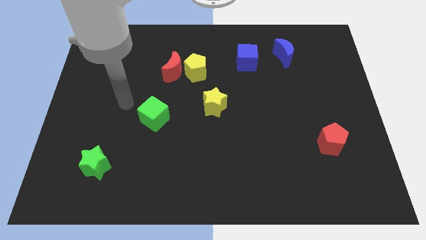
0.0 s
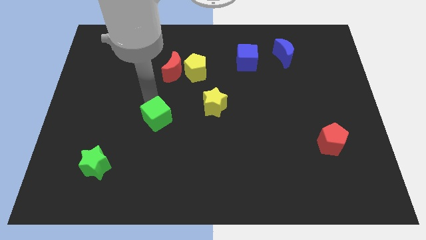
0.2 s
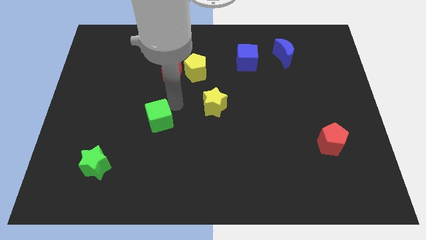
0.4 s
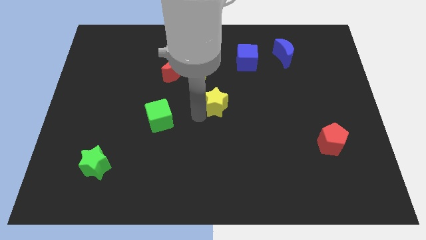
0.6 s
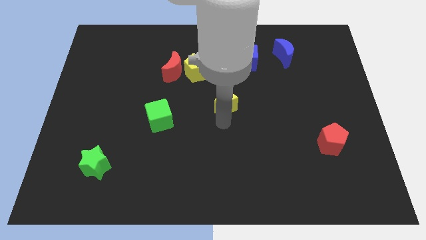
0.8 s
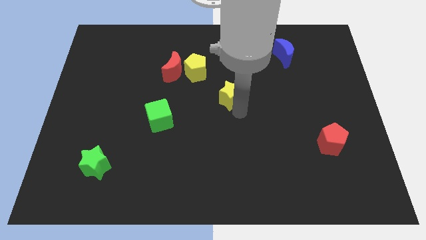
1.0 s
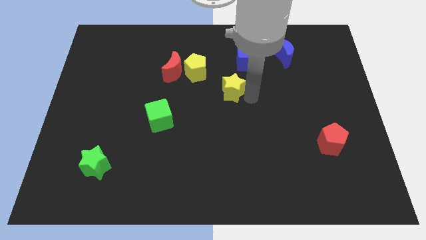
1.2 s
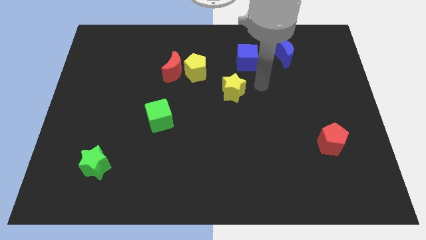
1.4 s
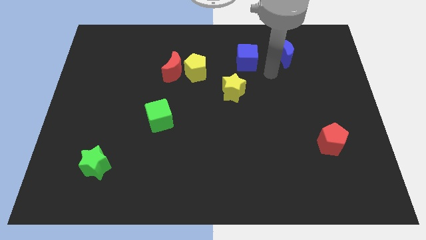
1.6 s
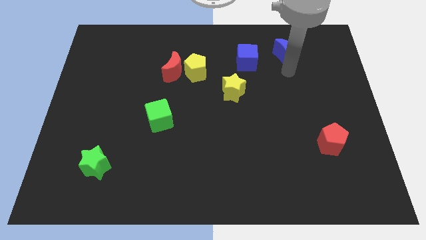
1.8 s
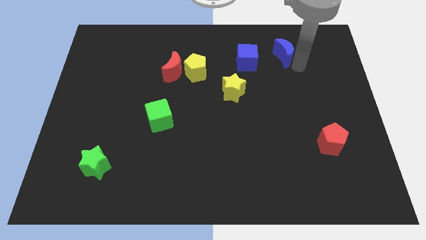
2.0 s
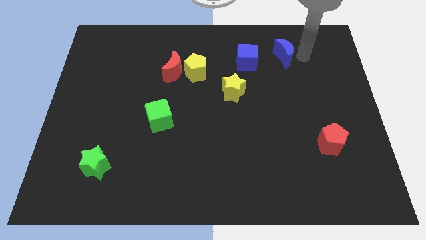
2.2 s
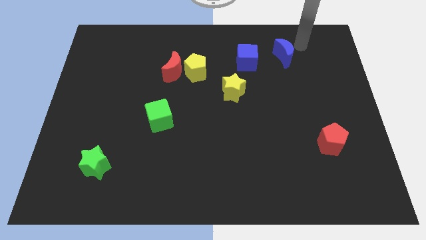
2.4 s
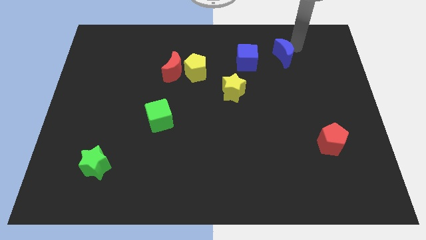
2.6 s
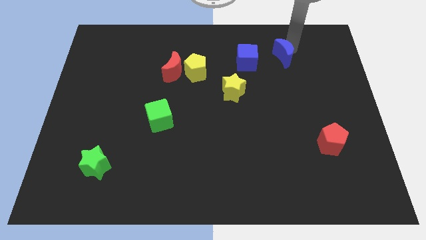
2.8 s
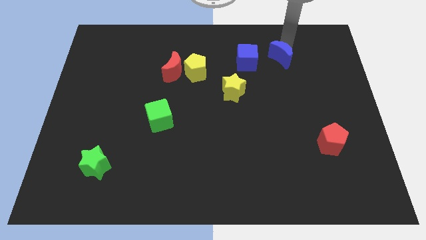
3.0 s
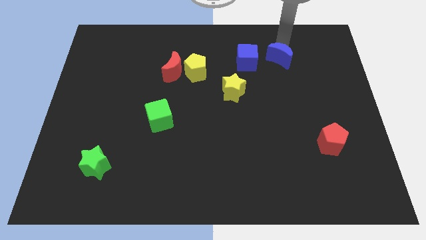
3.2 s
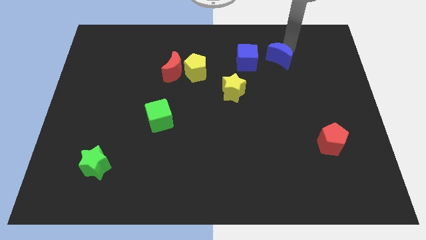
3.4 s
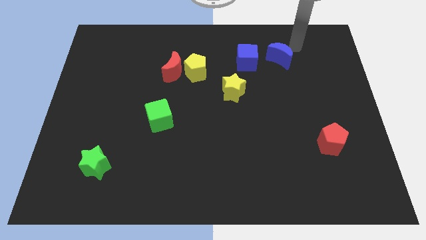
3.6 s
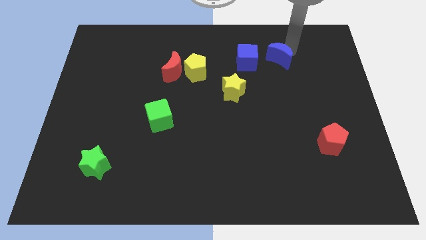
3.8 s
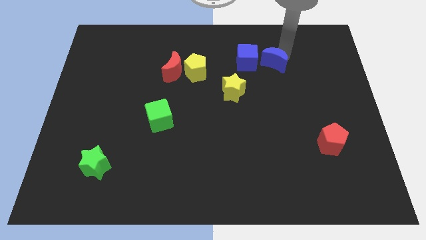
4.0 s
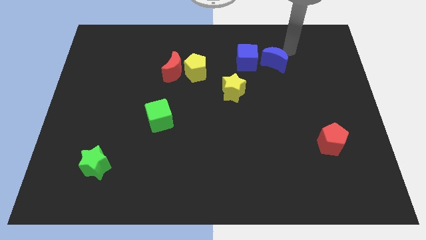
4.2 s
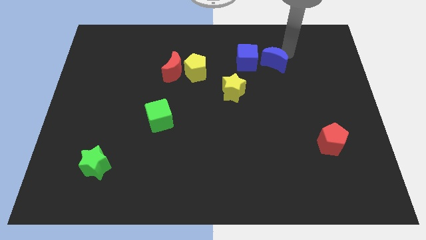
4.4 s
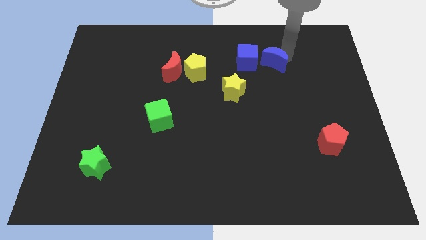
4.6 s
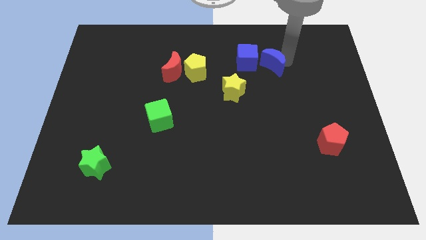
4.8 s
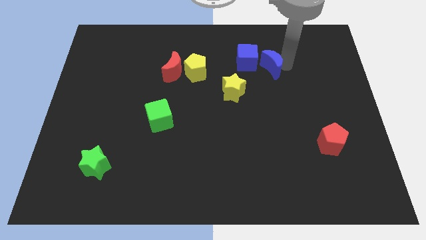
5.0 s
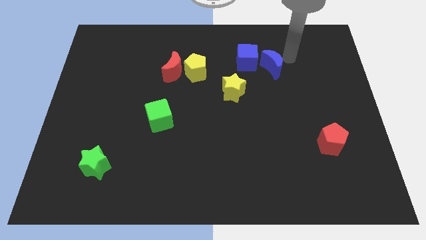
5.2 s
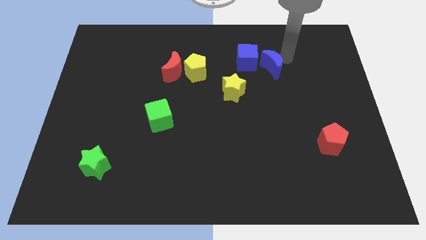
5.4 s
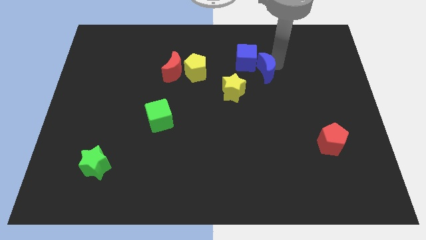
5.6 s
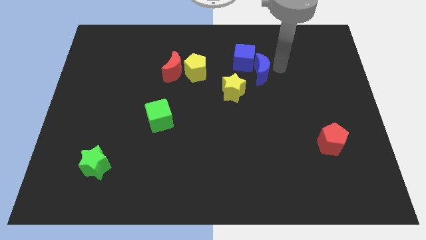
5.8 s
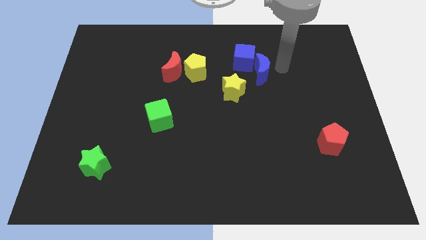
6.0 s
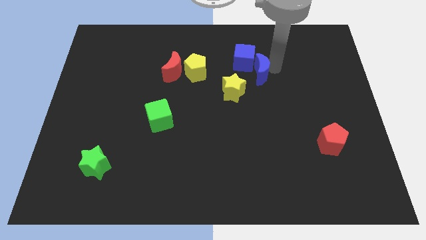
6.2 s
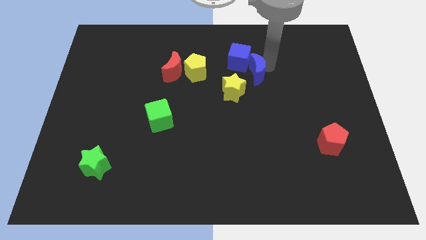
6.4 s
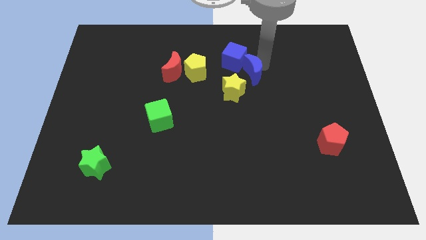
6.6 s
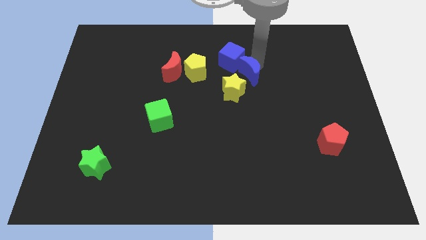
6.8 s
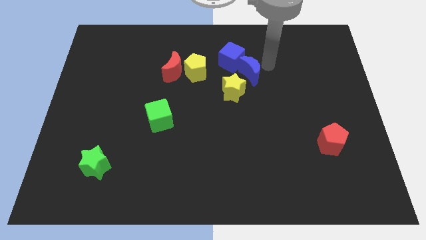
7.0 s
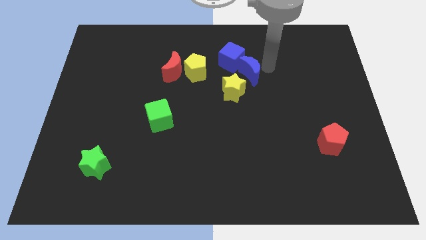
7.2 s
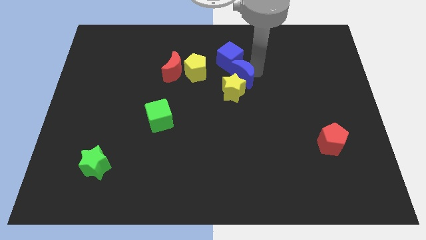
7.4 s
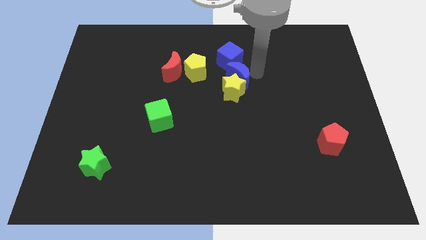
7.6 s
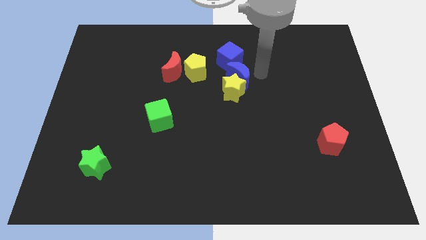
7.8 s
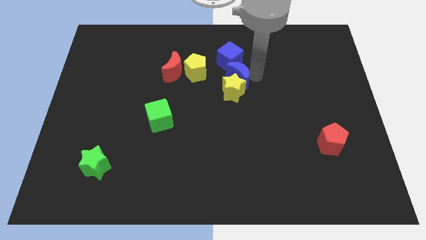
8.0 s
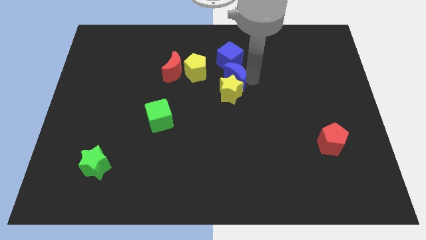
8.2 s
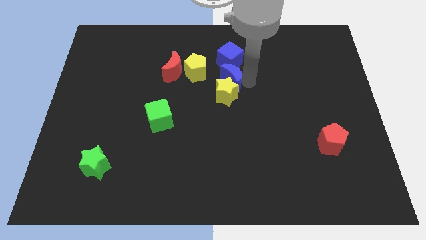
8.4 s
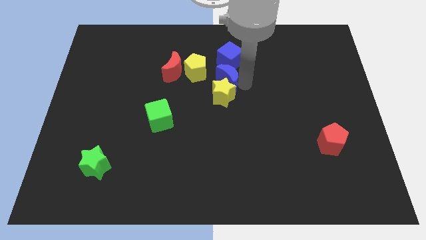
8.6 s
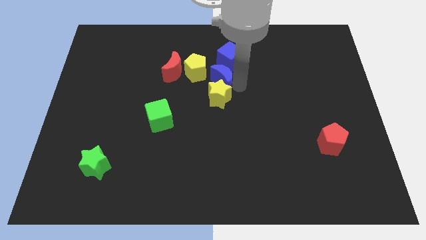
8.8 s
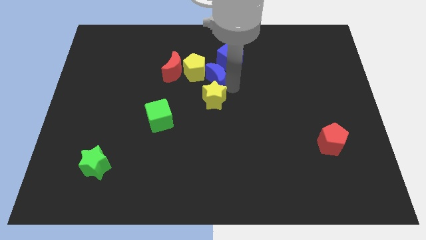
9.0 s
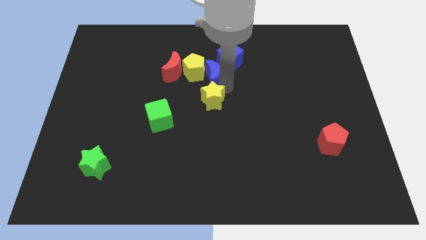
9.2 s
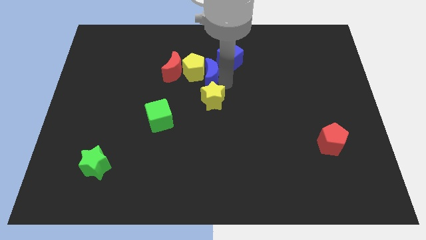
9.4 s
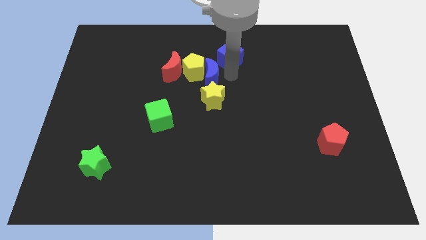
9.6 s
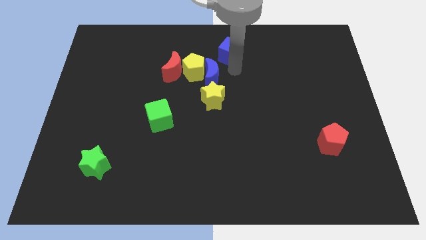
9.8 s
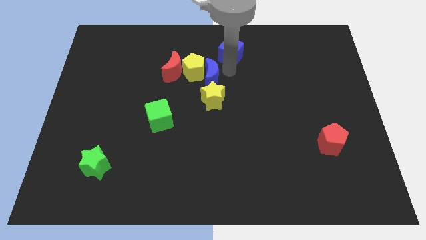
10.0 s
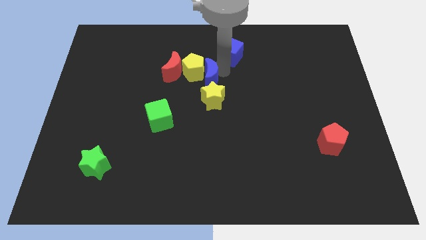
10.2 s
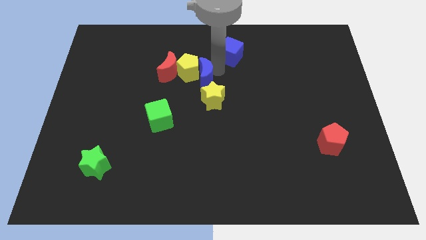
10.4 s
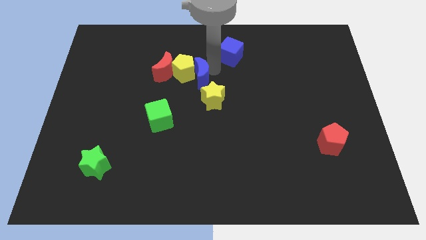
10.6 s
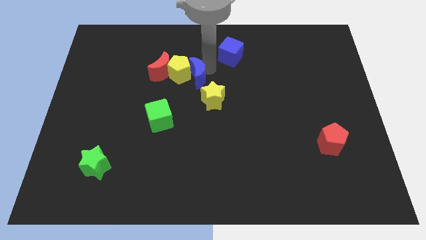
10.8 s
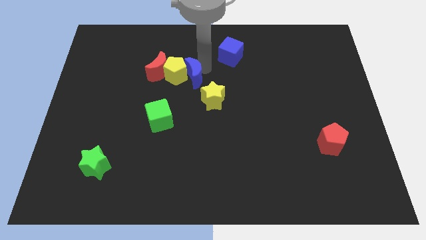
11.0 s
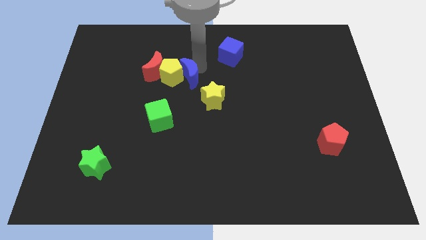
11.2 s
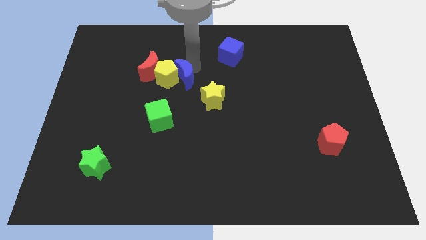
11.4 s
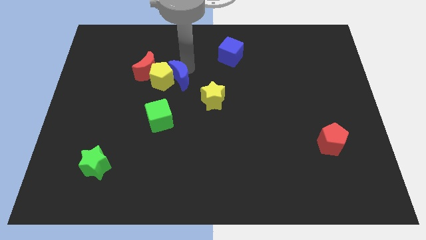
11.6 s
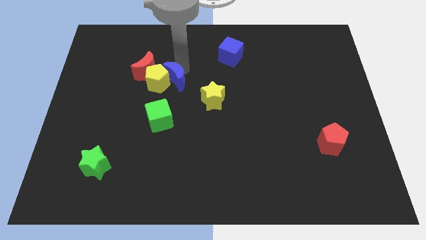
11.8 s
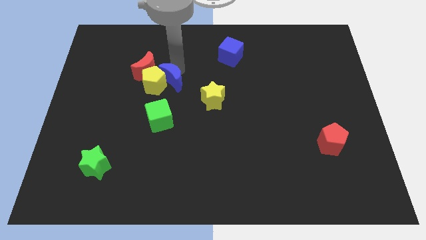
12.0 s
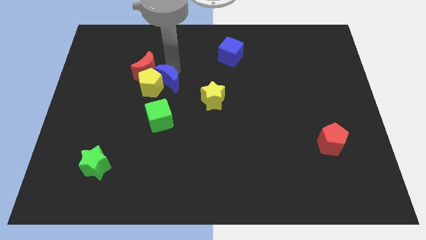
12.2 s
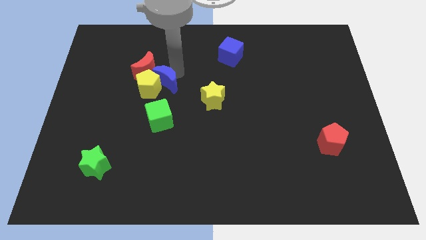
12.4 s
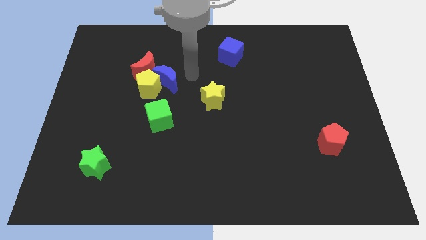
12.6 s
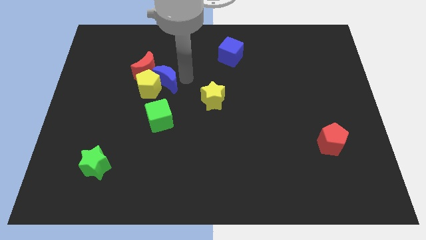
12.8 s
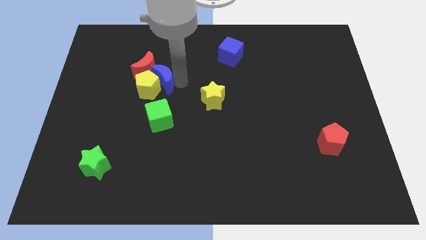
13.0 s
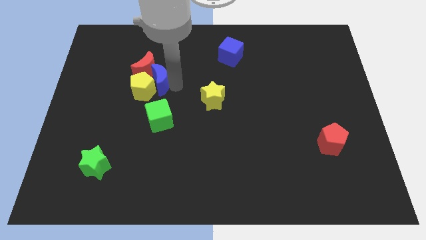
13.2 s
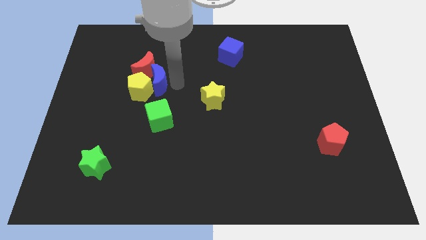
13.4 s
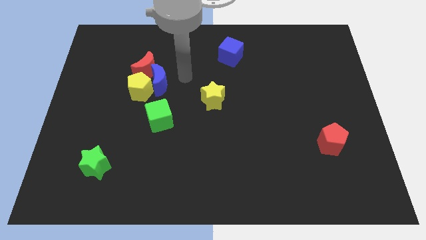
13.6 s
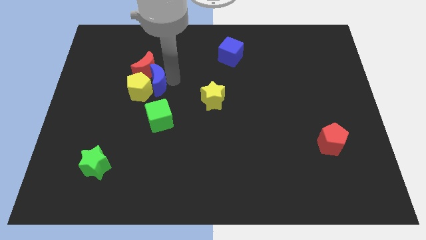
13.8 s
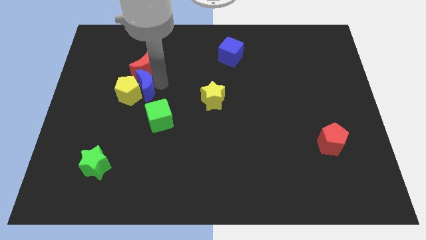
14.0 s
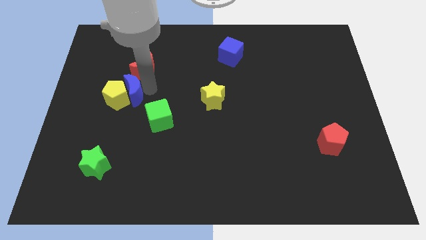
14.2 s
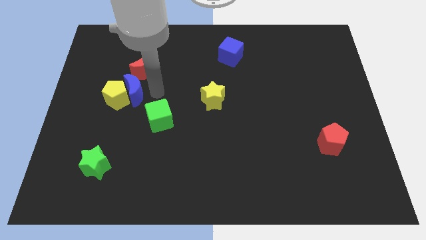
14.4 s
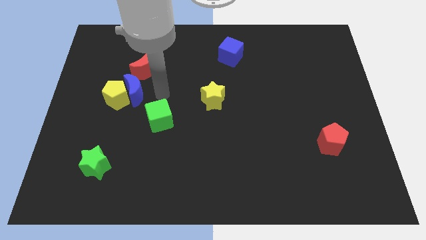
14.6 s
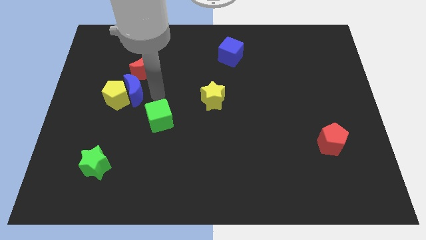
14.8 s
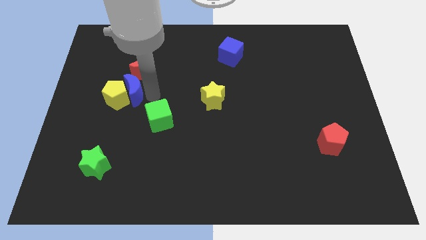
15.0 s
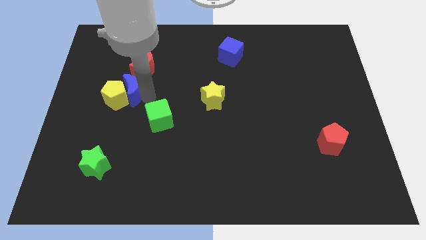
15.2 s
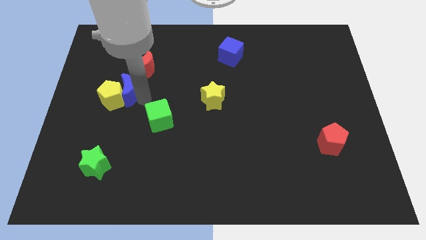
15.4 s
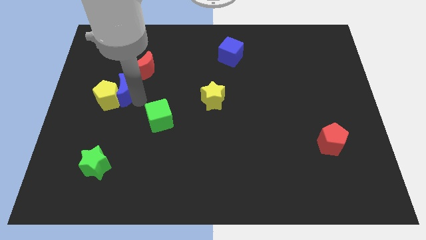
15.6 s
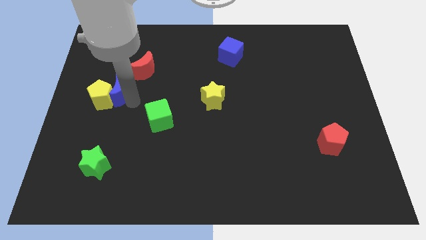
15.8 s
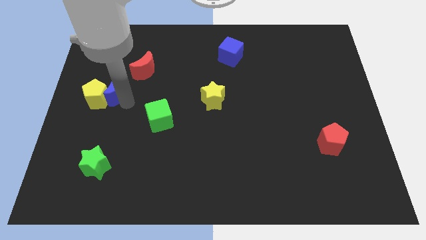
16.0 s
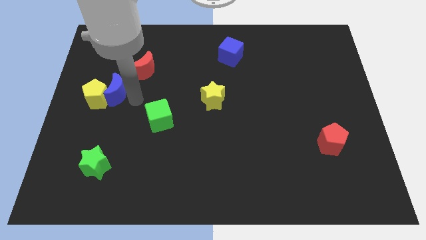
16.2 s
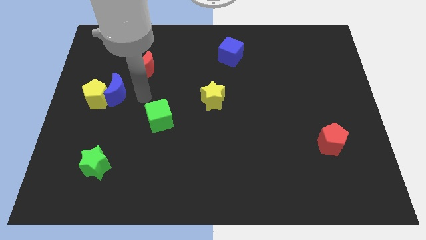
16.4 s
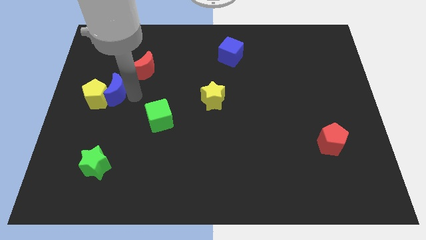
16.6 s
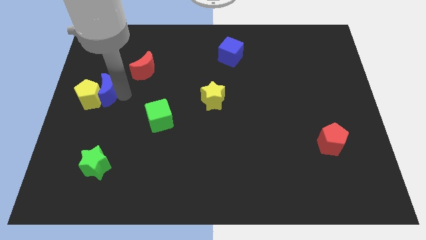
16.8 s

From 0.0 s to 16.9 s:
slide the blue moon to the left side
